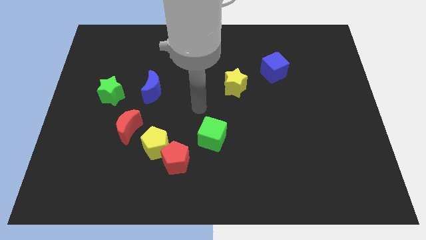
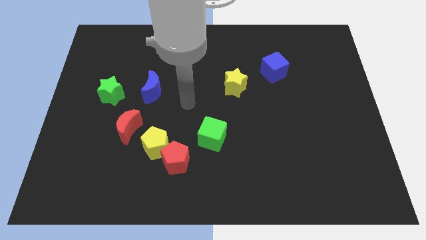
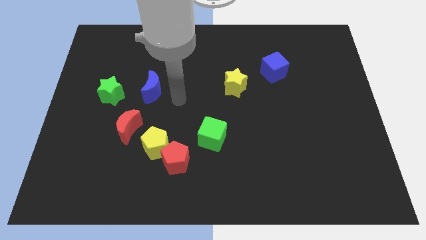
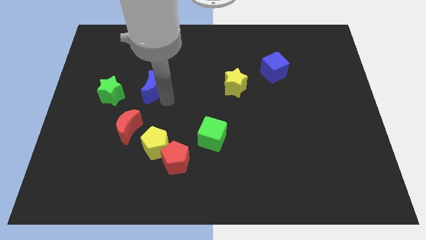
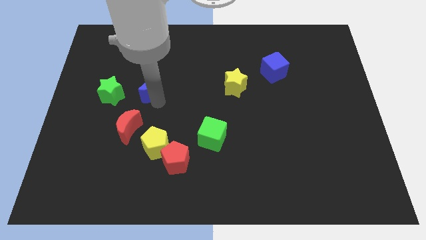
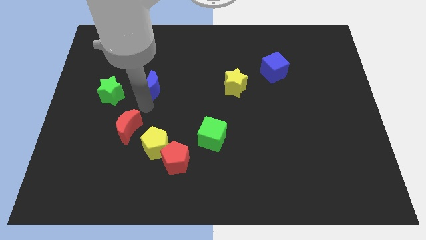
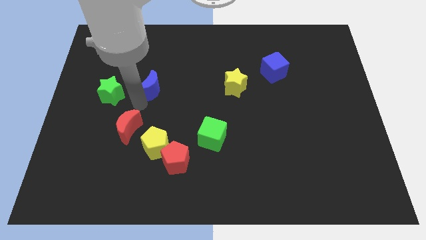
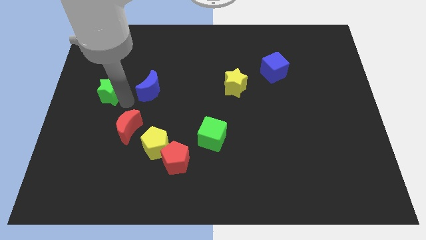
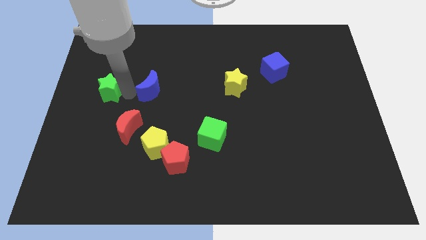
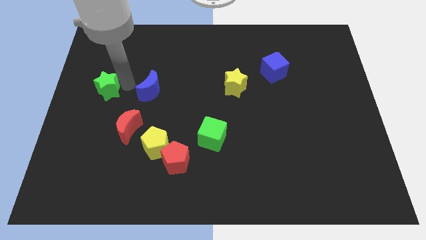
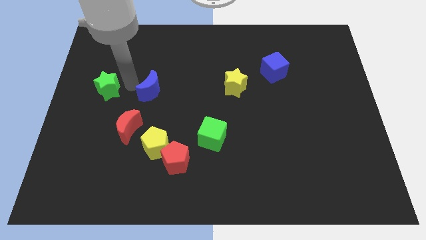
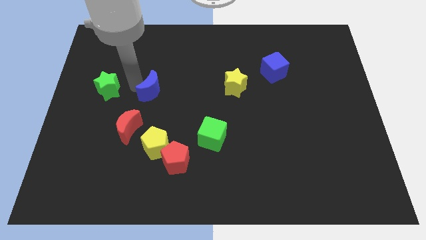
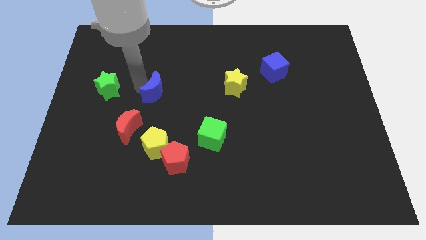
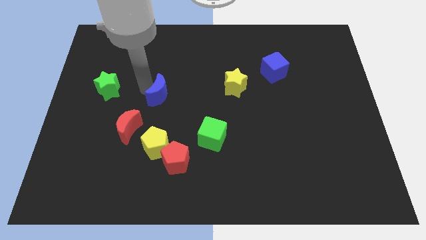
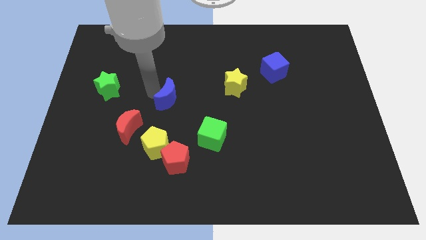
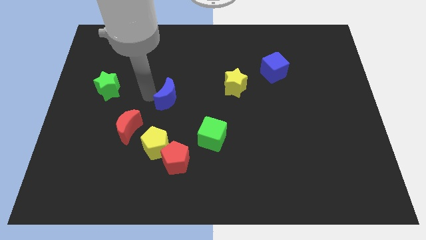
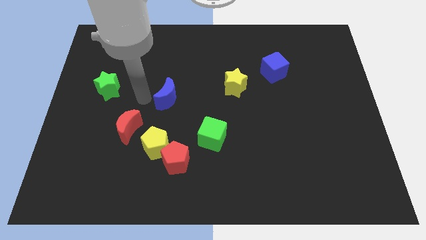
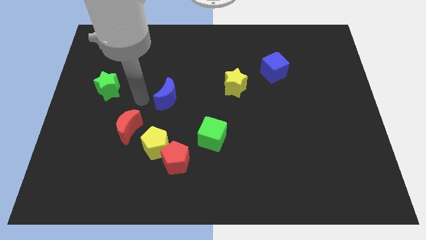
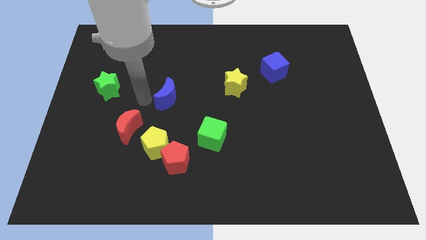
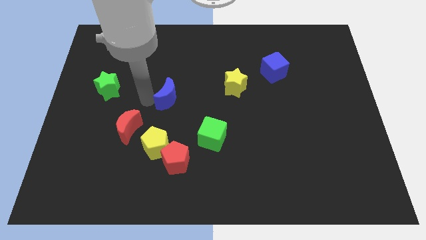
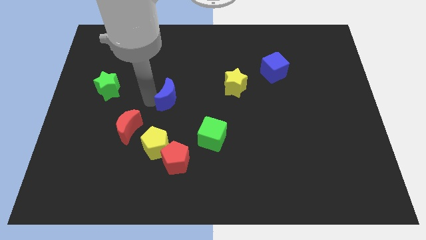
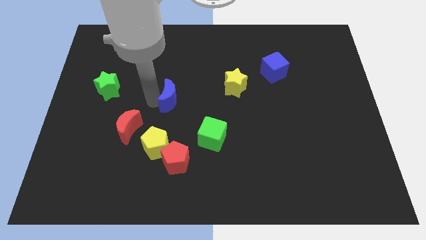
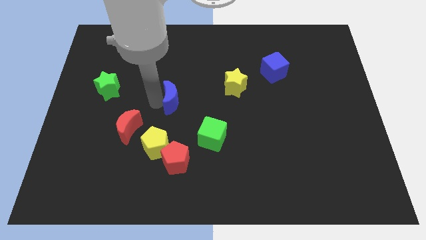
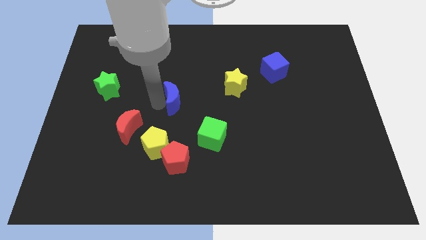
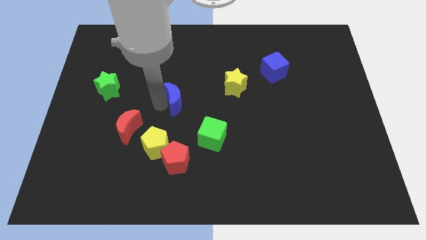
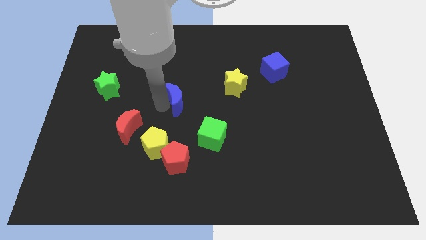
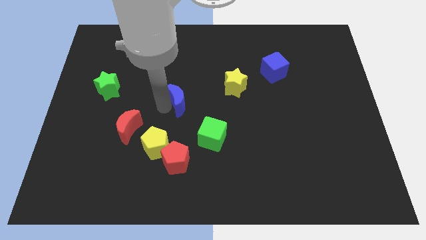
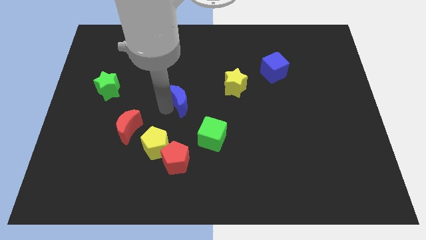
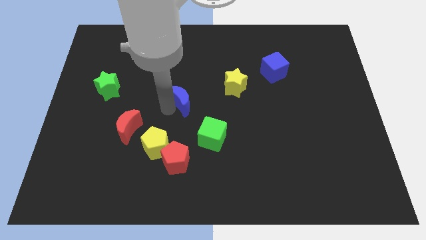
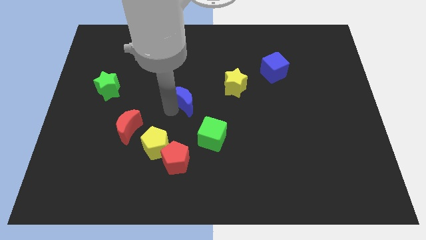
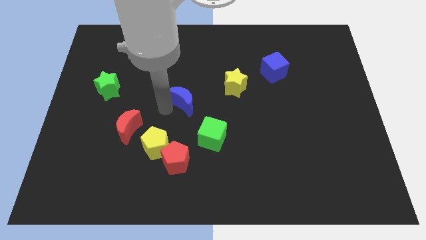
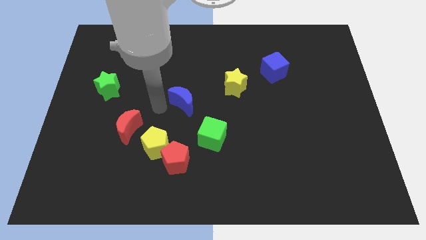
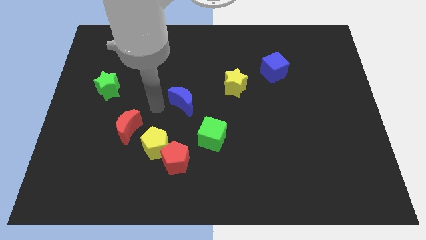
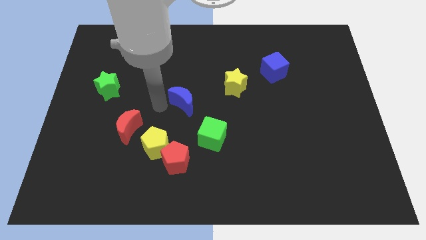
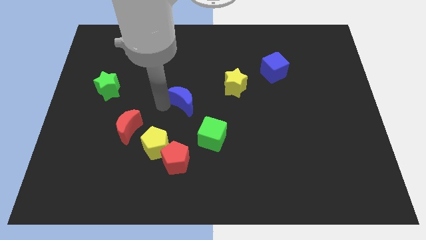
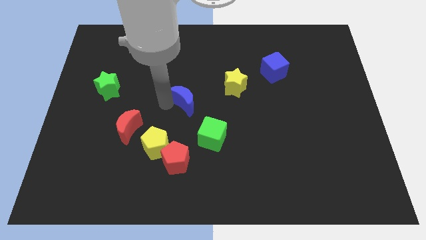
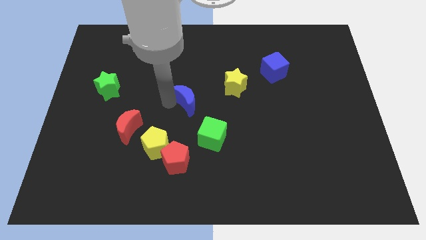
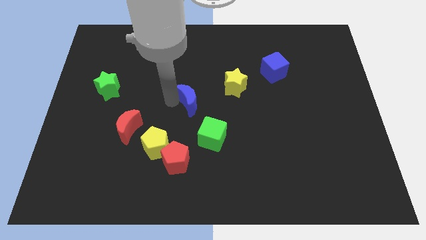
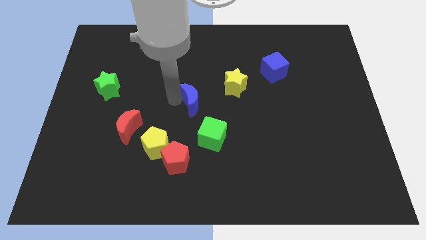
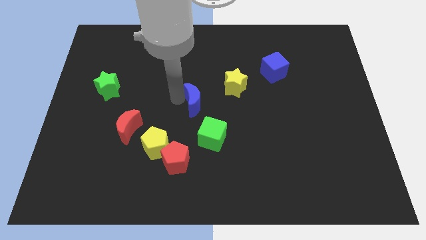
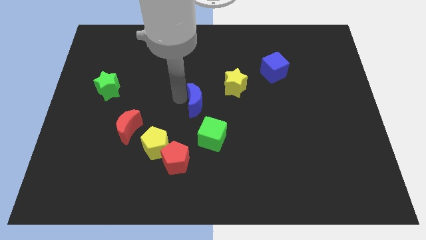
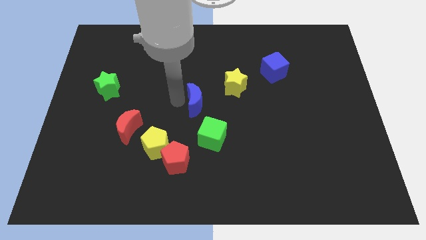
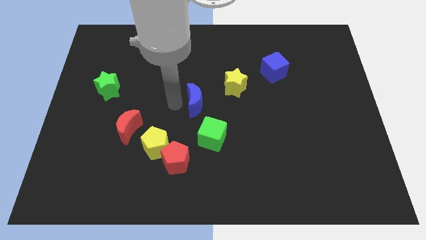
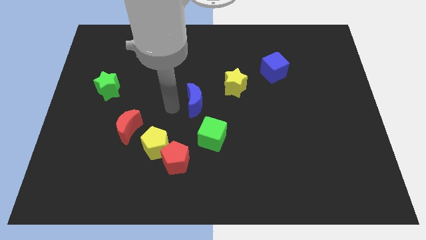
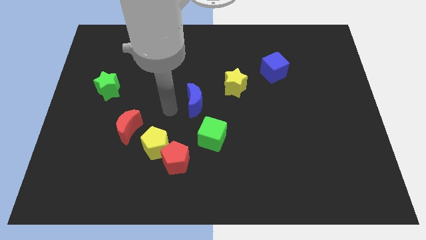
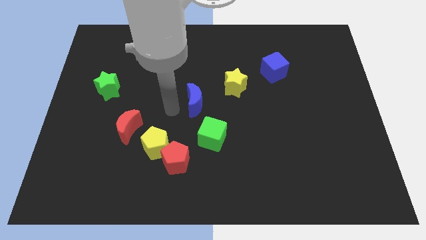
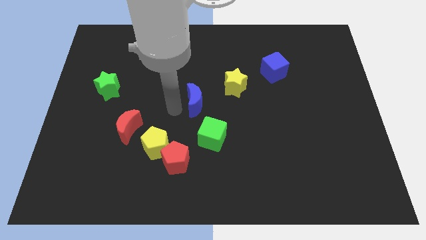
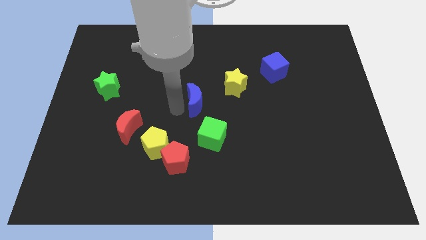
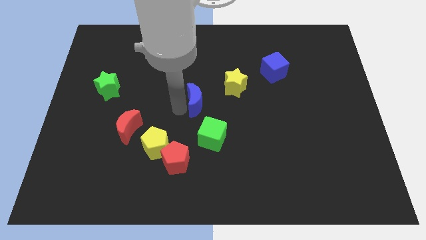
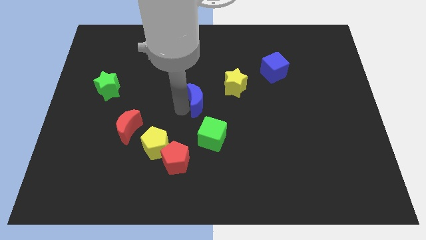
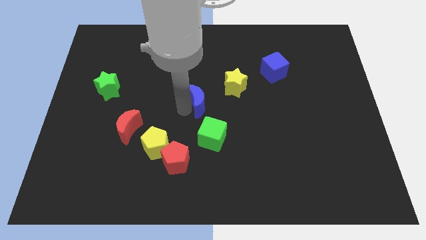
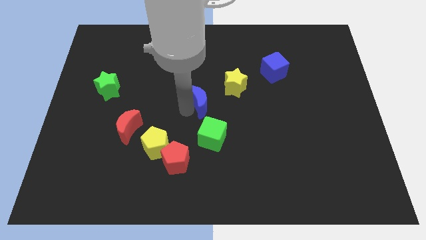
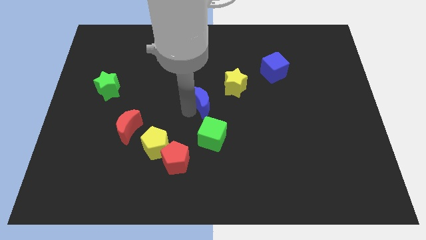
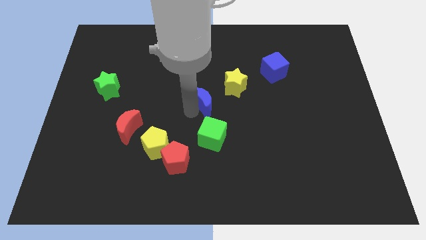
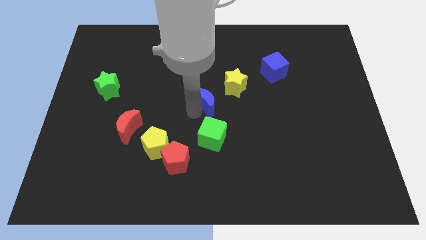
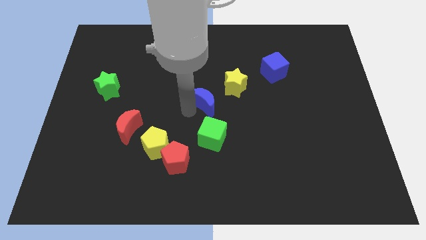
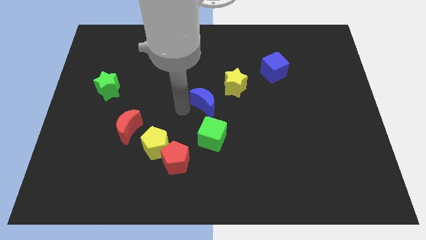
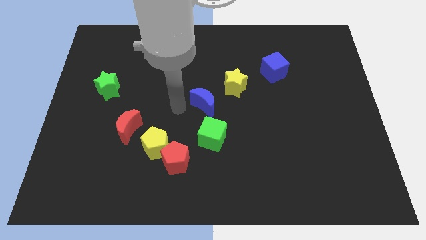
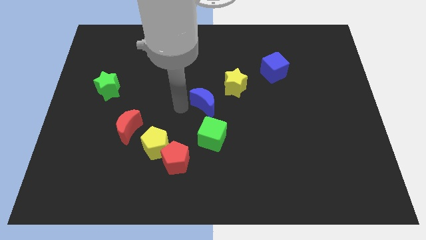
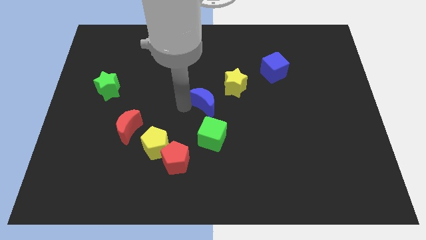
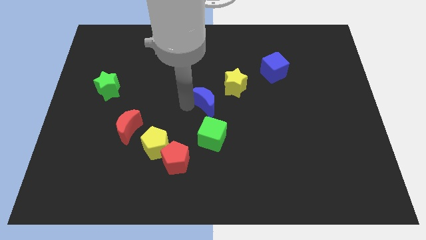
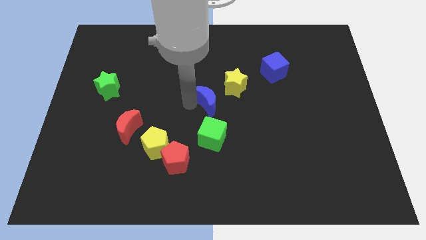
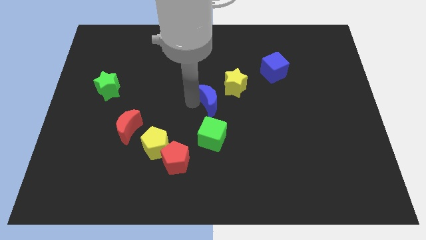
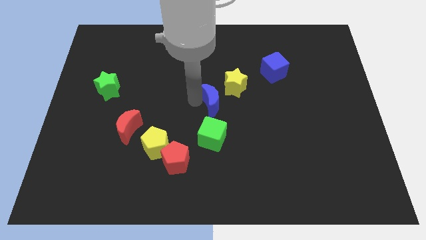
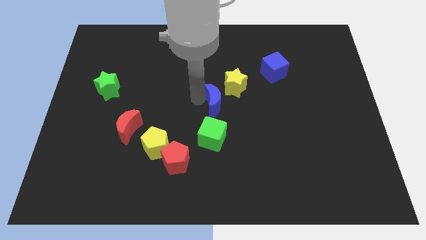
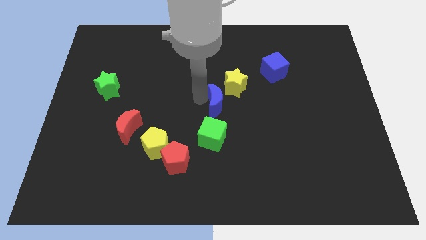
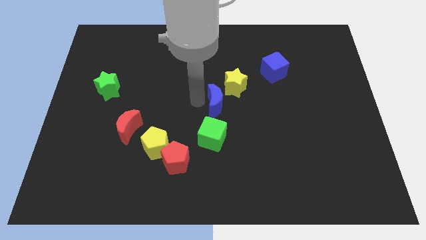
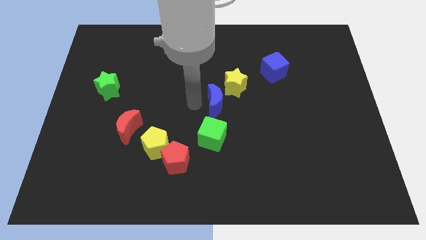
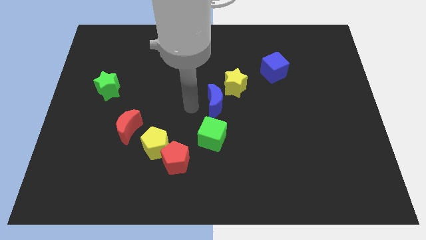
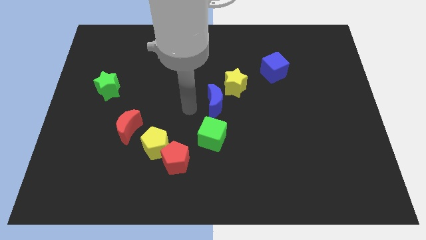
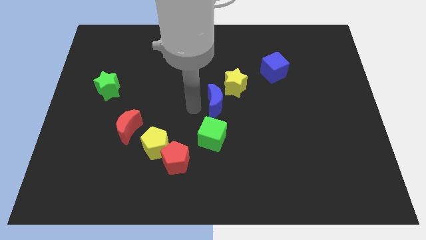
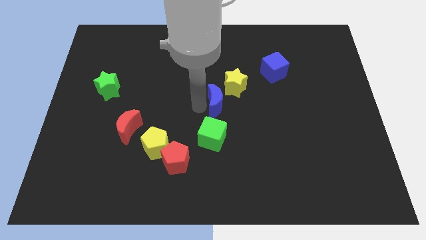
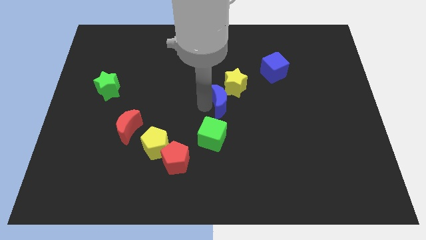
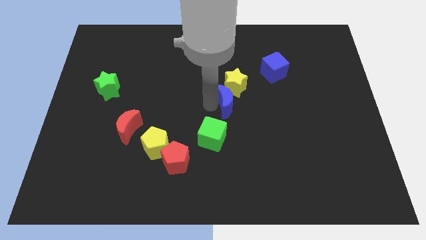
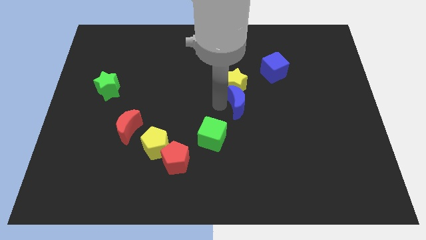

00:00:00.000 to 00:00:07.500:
move the blue moon right

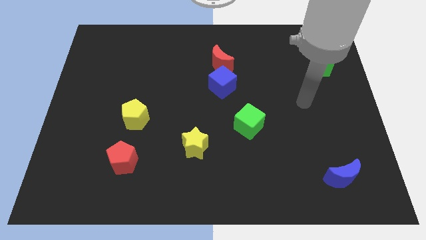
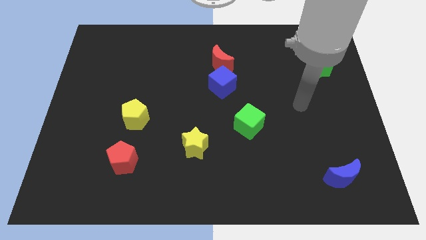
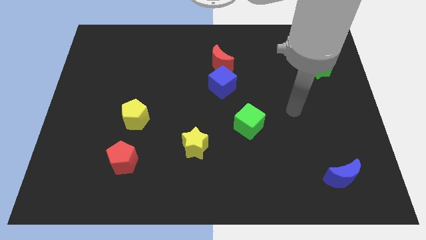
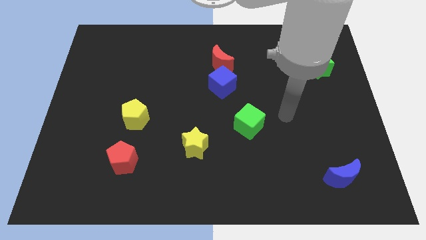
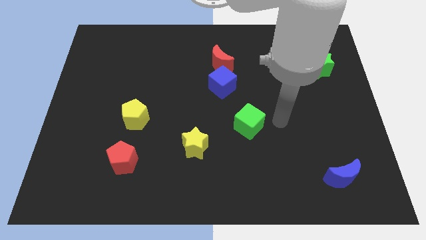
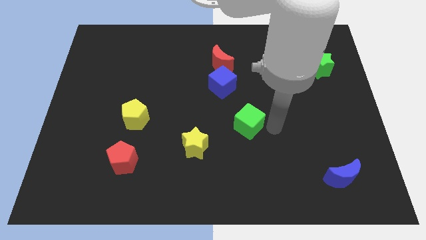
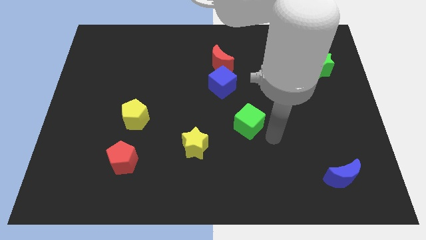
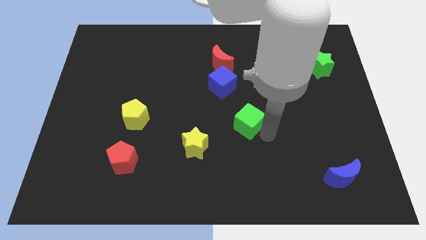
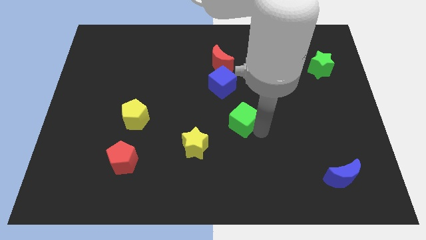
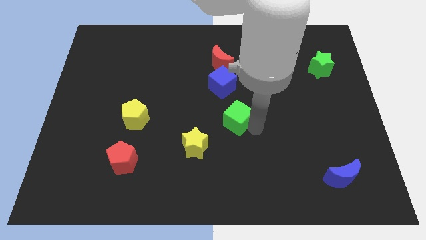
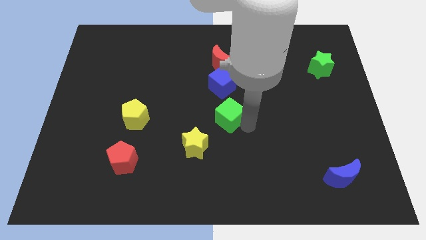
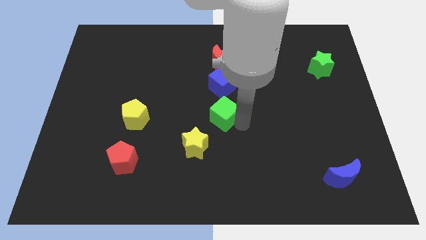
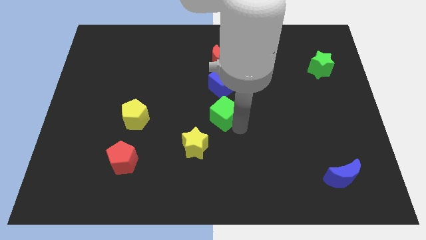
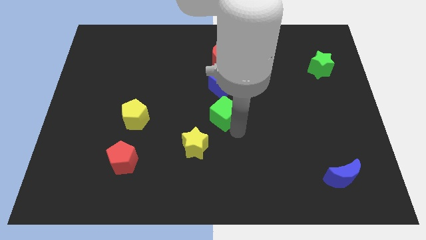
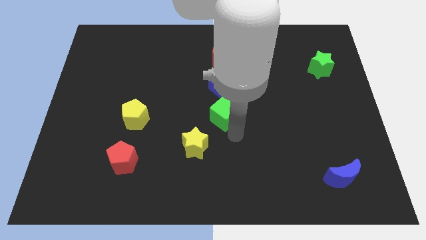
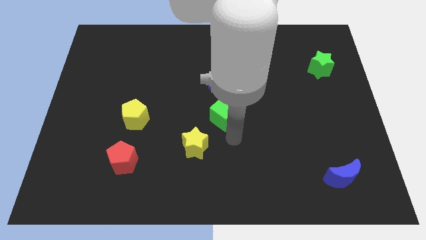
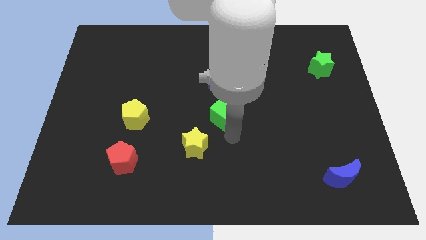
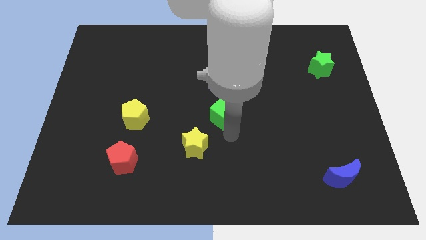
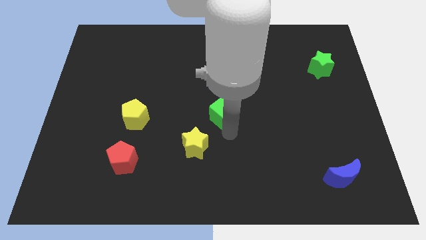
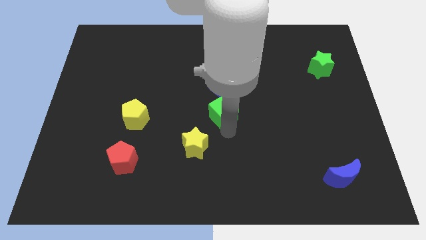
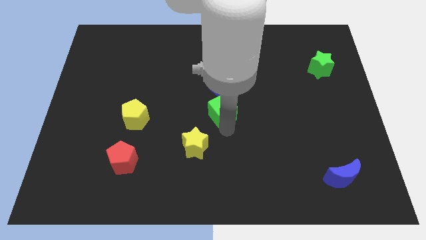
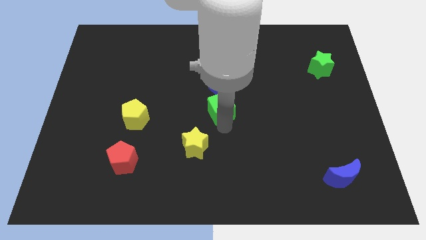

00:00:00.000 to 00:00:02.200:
slightly push the green cube up and to the left
